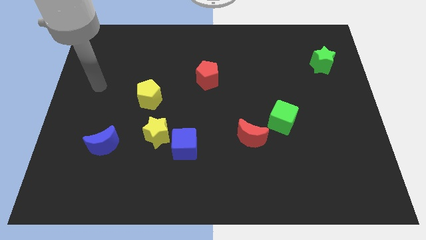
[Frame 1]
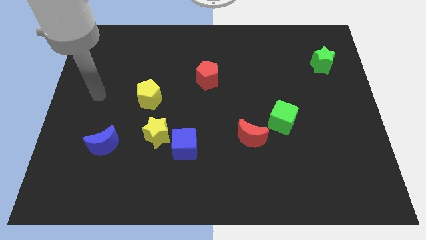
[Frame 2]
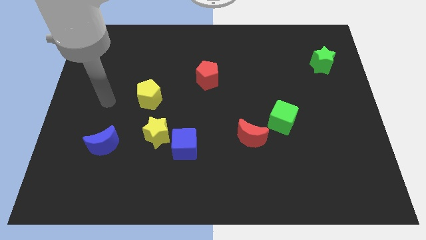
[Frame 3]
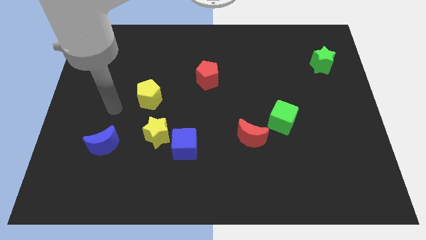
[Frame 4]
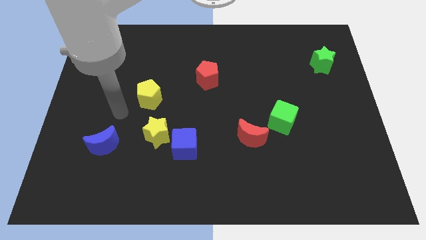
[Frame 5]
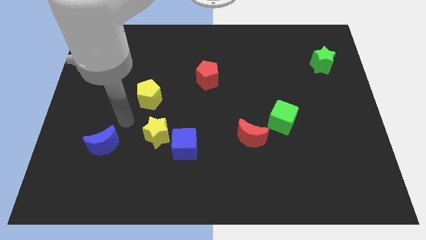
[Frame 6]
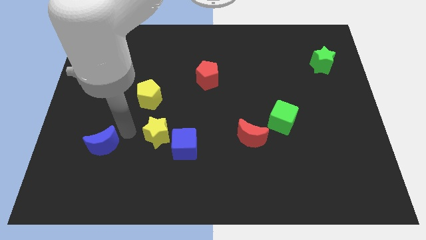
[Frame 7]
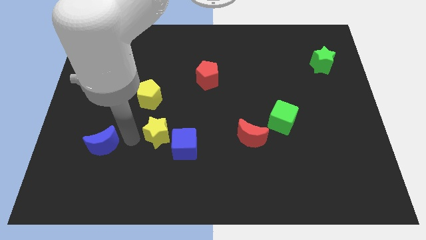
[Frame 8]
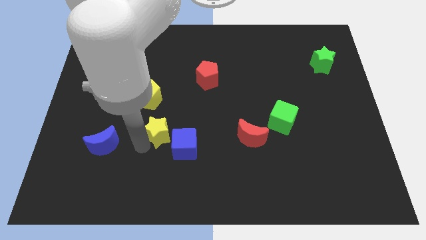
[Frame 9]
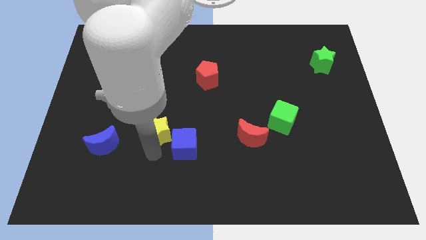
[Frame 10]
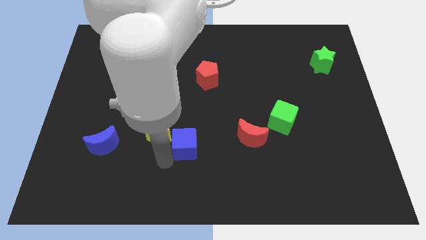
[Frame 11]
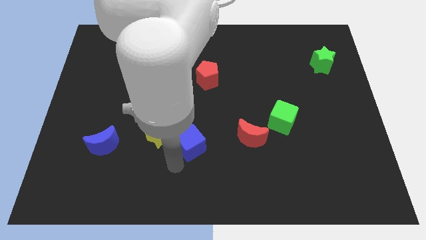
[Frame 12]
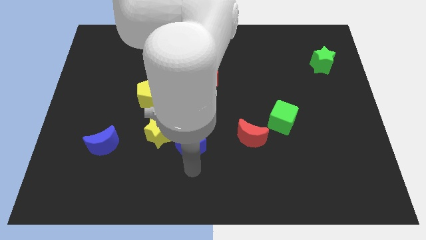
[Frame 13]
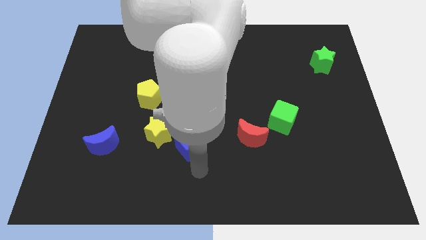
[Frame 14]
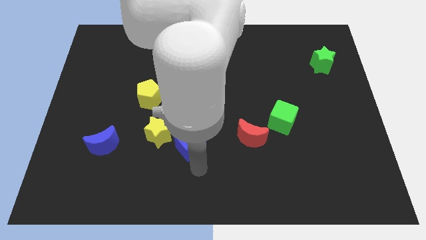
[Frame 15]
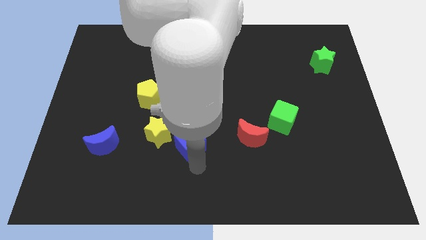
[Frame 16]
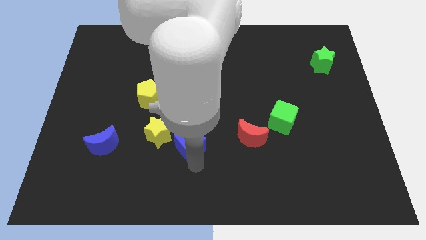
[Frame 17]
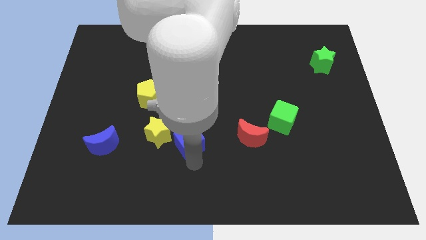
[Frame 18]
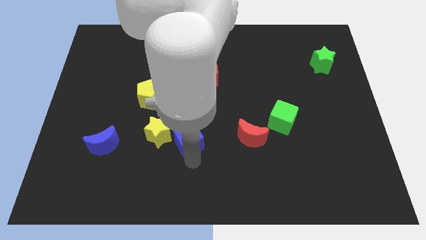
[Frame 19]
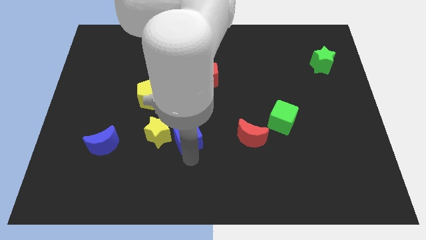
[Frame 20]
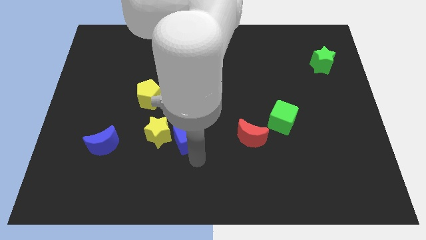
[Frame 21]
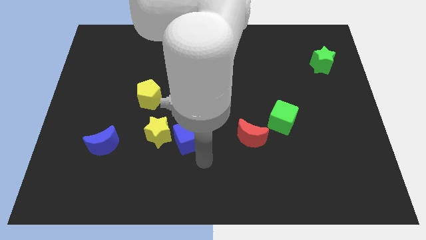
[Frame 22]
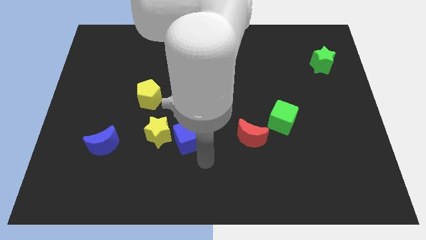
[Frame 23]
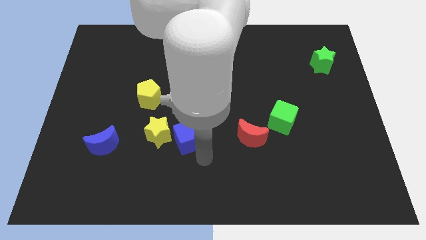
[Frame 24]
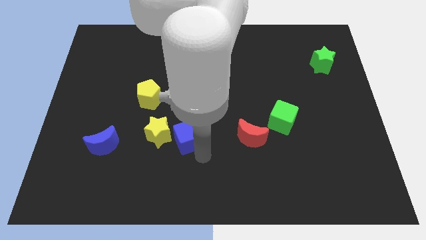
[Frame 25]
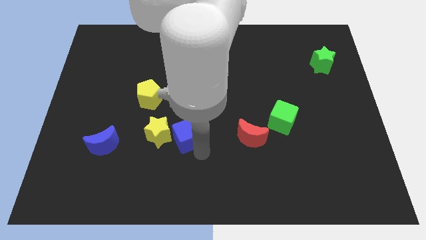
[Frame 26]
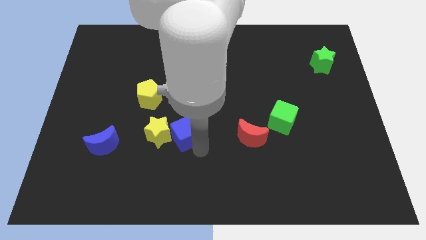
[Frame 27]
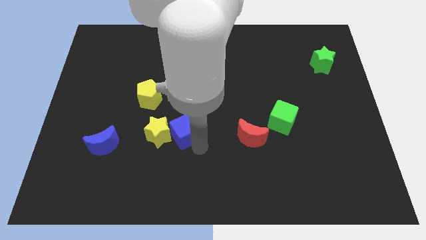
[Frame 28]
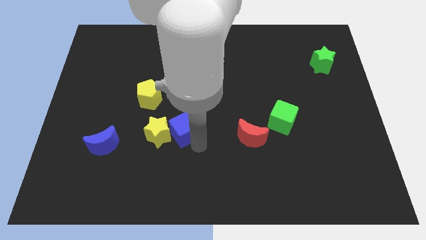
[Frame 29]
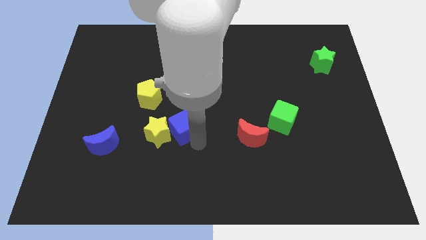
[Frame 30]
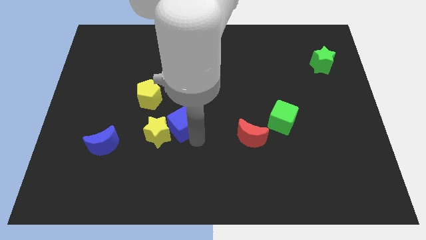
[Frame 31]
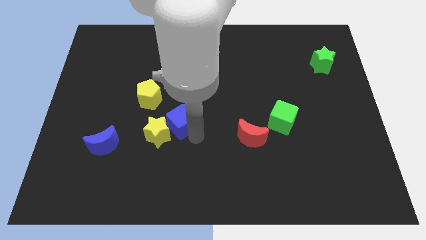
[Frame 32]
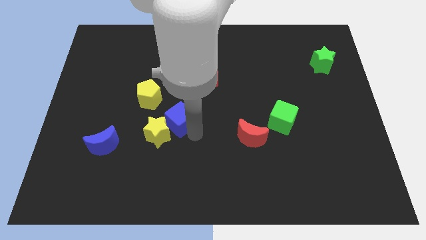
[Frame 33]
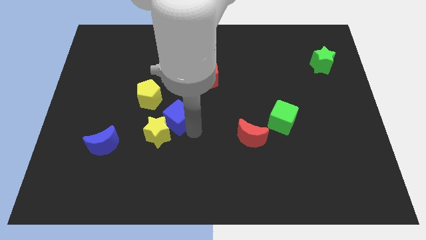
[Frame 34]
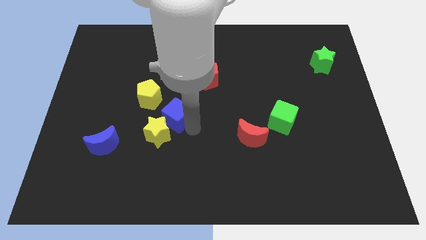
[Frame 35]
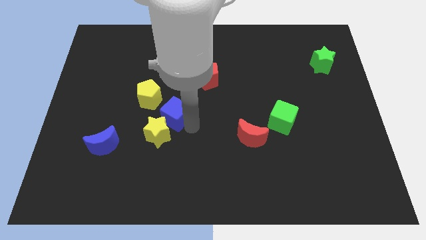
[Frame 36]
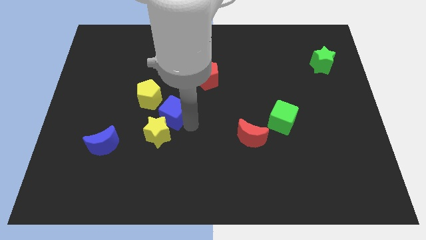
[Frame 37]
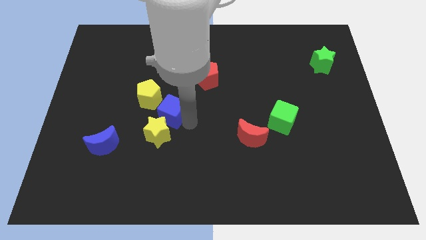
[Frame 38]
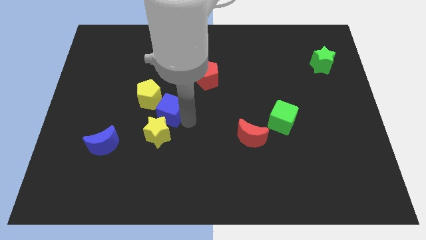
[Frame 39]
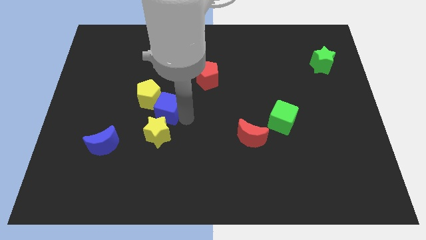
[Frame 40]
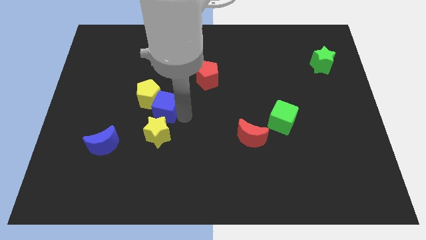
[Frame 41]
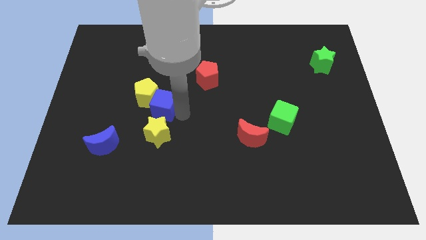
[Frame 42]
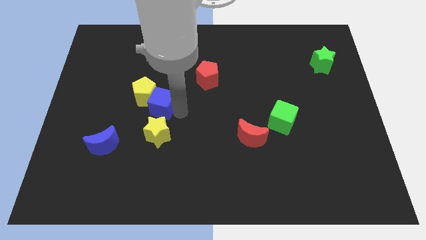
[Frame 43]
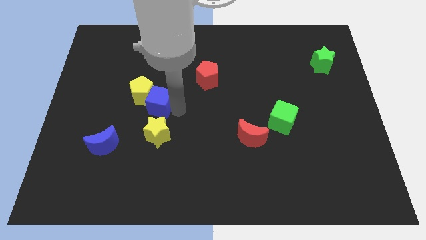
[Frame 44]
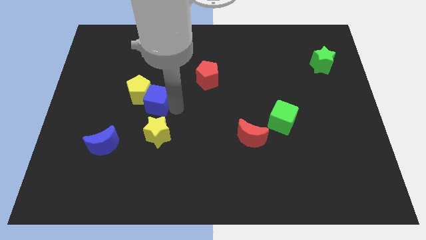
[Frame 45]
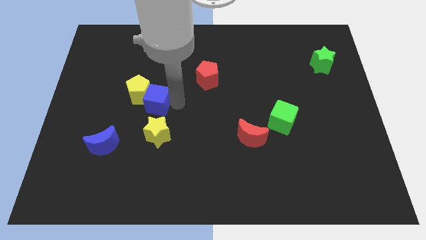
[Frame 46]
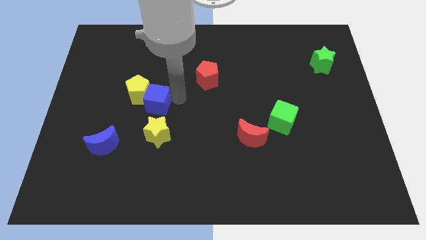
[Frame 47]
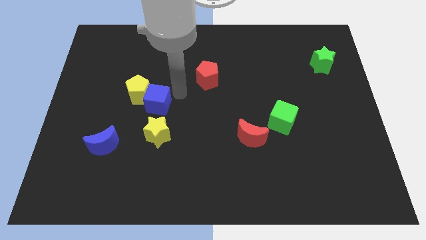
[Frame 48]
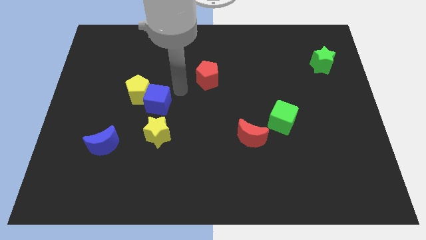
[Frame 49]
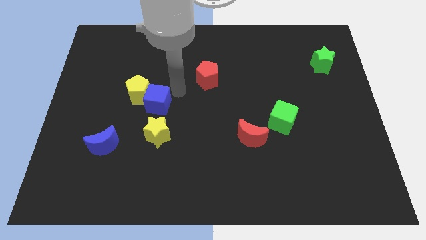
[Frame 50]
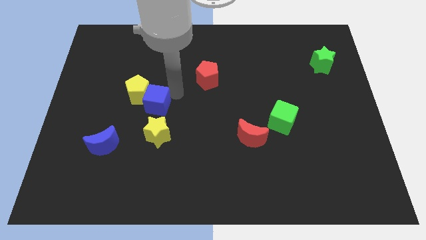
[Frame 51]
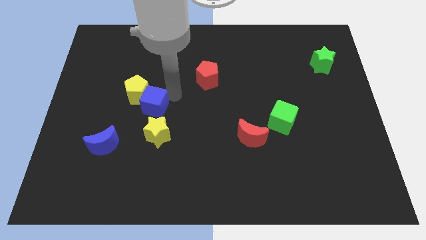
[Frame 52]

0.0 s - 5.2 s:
put the blue cube to the top left of the yellow star

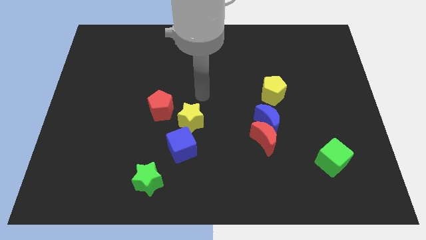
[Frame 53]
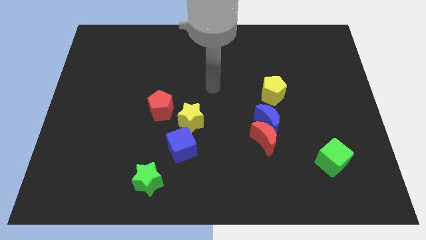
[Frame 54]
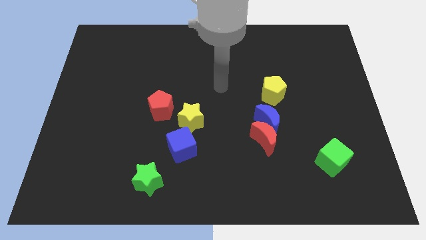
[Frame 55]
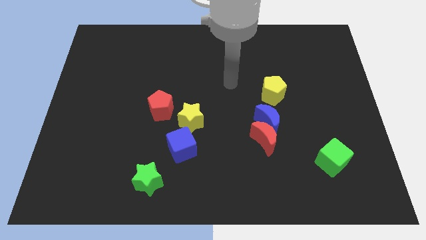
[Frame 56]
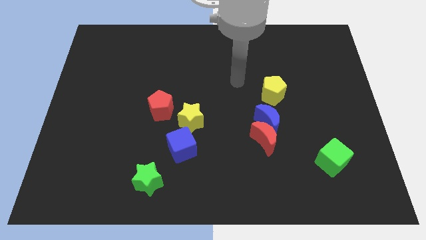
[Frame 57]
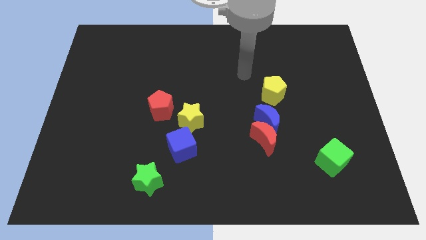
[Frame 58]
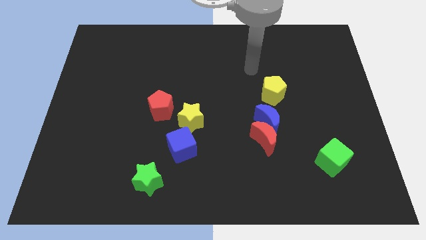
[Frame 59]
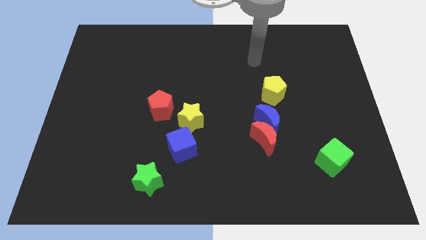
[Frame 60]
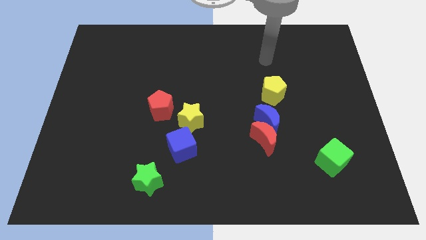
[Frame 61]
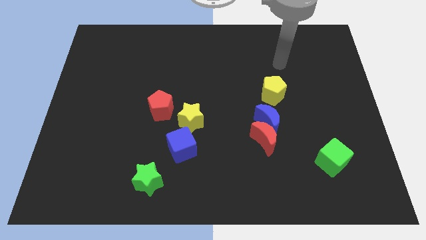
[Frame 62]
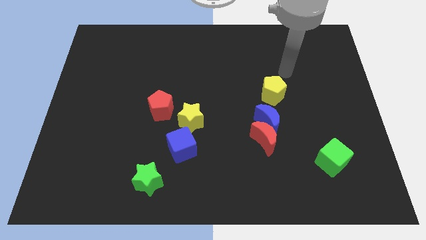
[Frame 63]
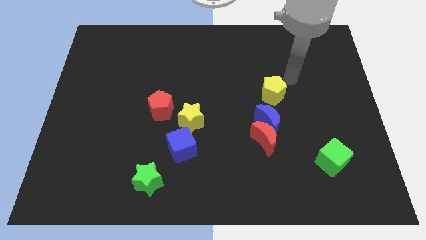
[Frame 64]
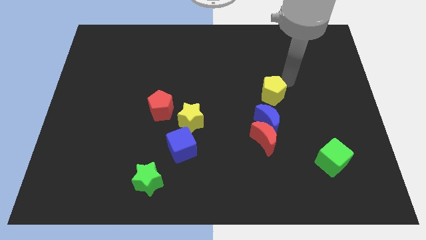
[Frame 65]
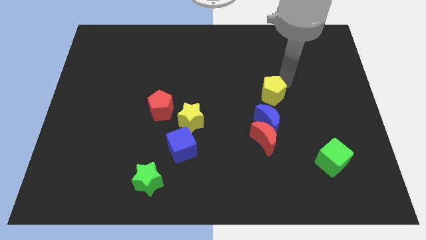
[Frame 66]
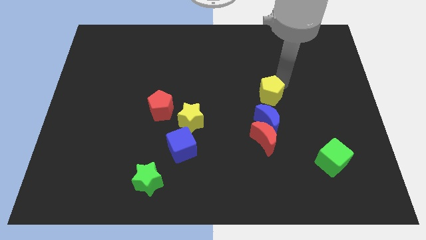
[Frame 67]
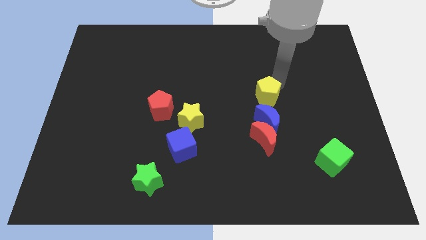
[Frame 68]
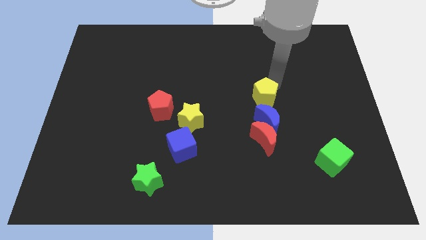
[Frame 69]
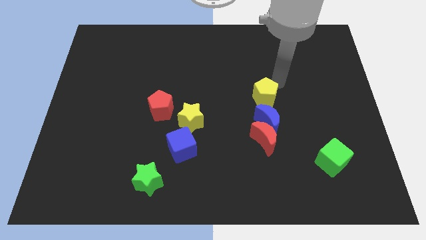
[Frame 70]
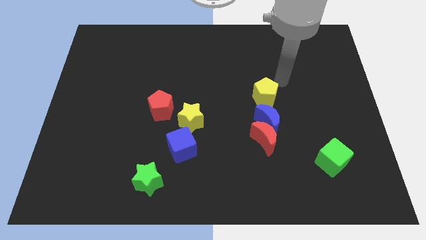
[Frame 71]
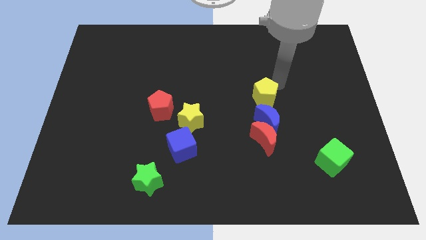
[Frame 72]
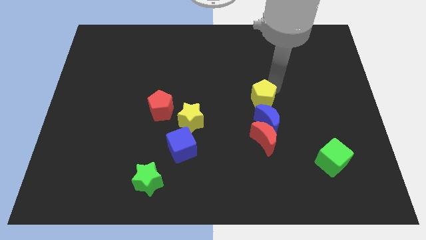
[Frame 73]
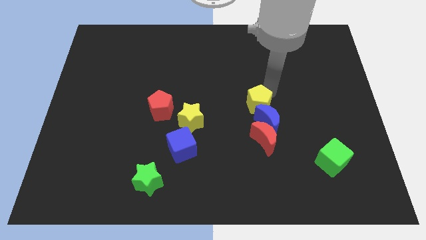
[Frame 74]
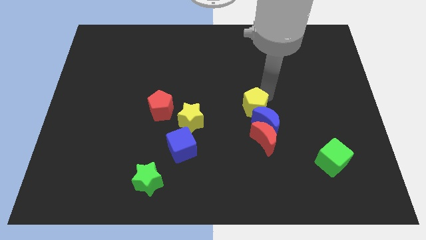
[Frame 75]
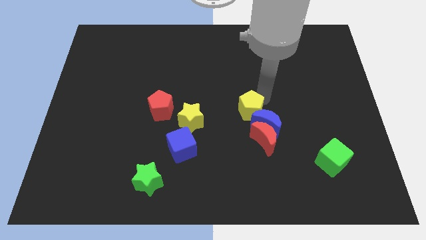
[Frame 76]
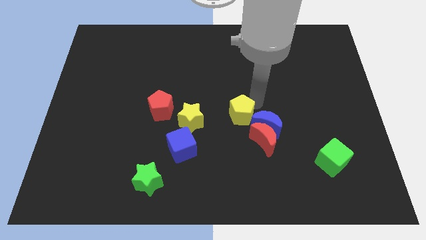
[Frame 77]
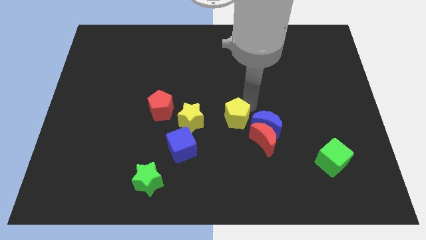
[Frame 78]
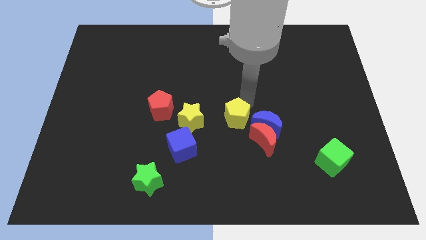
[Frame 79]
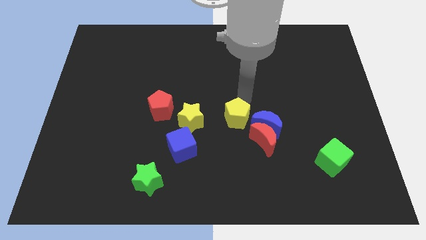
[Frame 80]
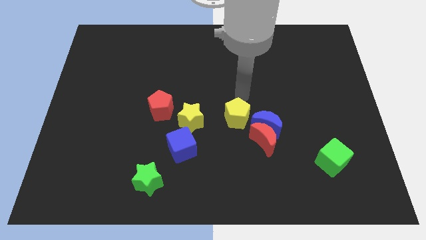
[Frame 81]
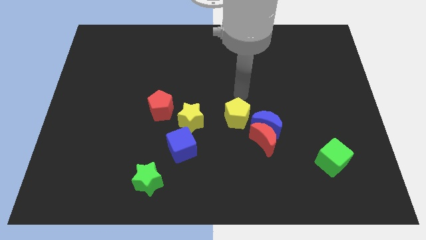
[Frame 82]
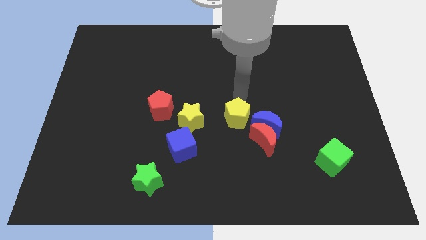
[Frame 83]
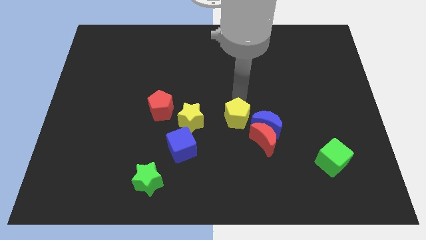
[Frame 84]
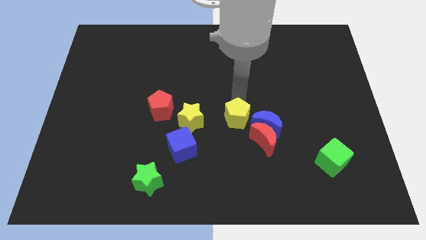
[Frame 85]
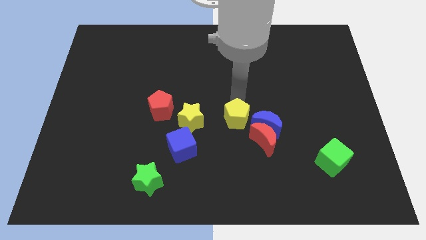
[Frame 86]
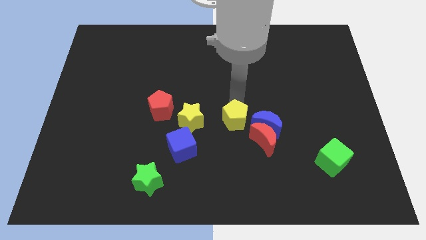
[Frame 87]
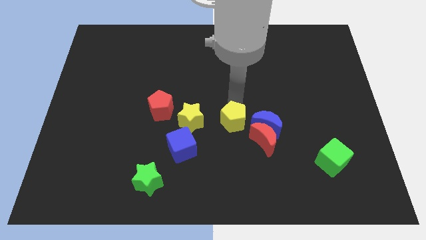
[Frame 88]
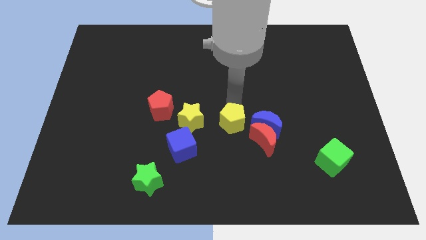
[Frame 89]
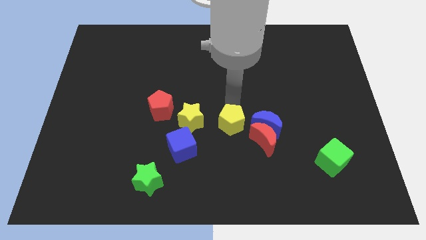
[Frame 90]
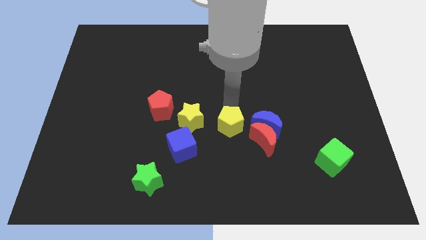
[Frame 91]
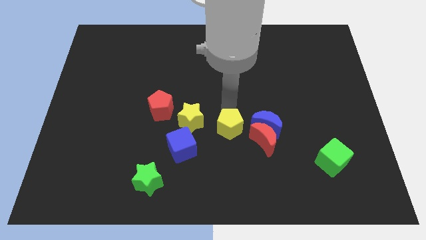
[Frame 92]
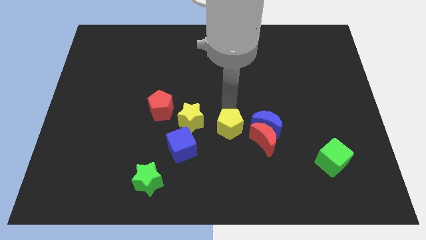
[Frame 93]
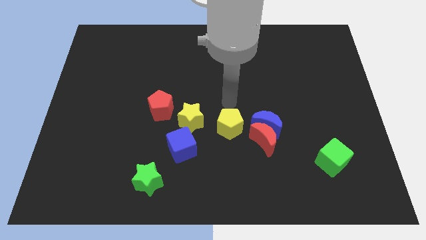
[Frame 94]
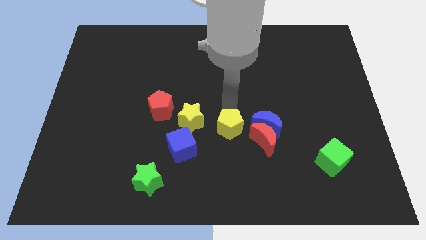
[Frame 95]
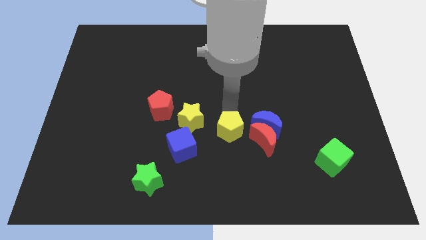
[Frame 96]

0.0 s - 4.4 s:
push the yellow pentagon to the right of the blue cube
